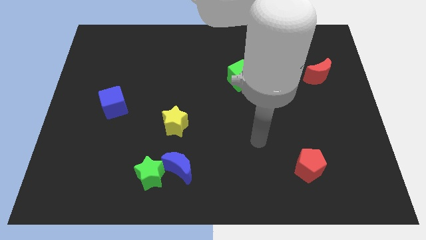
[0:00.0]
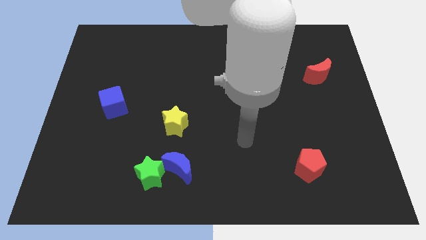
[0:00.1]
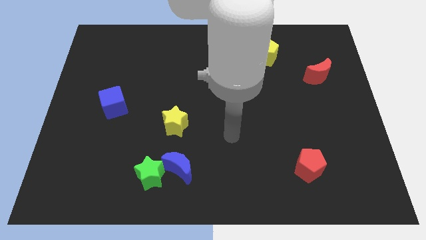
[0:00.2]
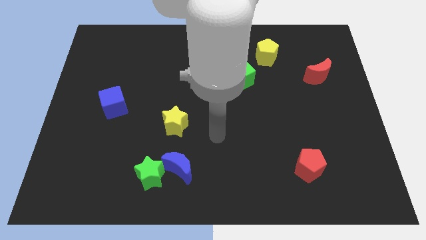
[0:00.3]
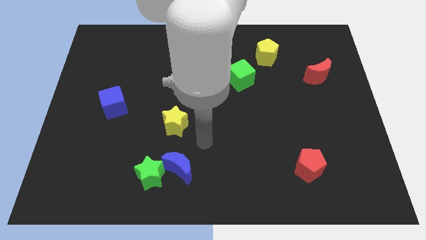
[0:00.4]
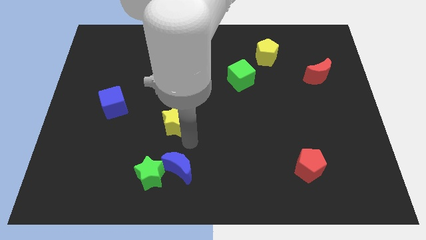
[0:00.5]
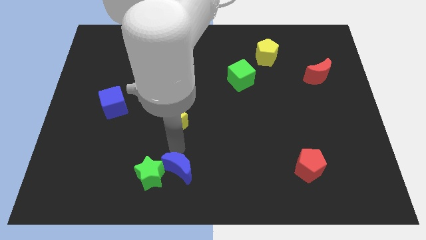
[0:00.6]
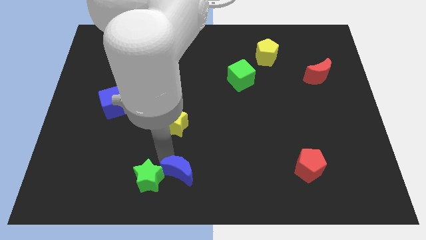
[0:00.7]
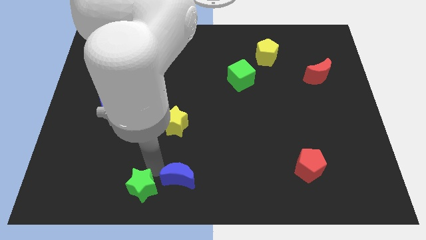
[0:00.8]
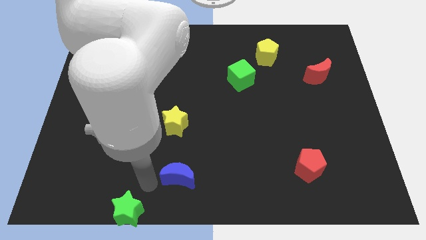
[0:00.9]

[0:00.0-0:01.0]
separate the blue moon from the green star

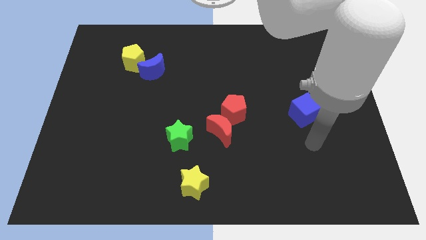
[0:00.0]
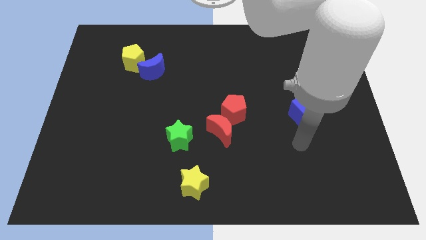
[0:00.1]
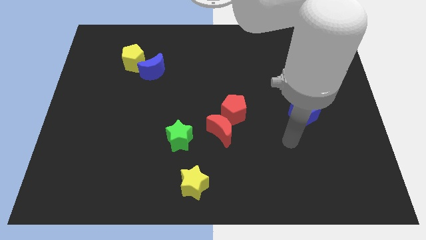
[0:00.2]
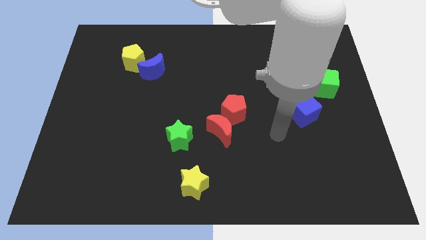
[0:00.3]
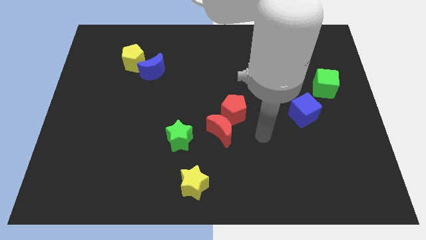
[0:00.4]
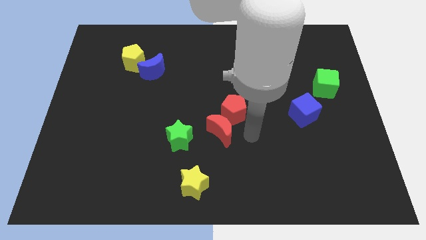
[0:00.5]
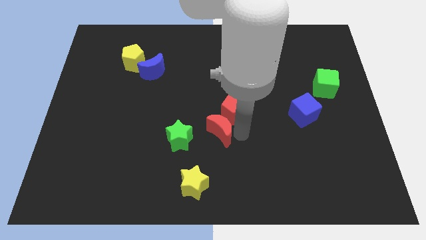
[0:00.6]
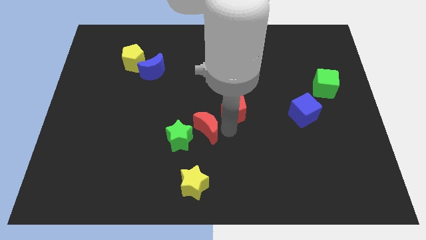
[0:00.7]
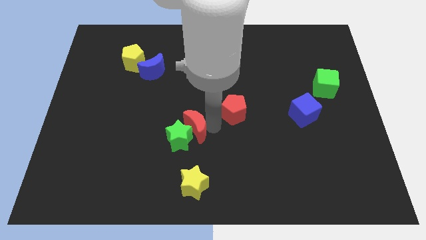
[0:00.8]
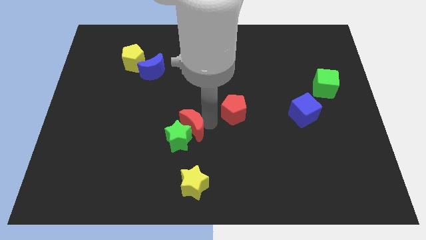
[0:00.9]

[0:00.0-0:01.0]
pull the red pentagon apart from the red moon

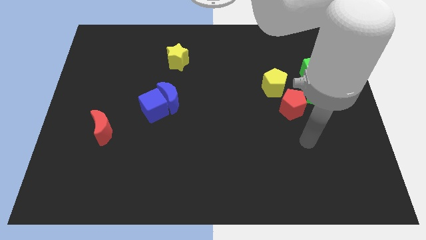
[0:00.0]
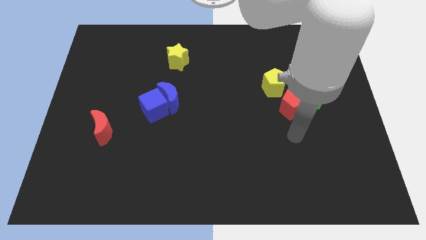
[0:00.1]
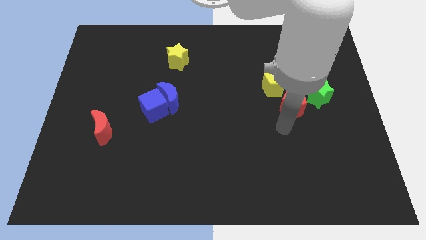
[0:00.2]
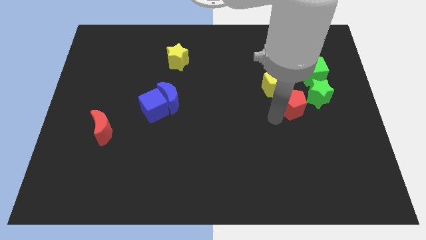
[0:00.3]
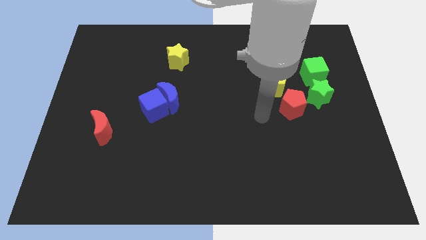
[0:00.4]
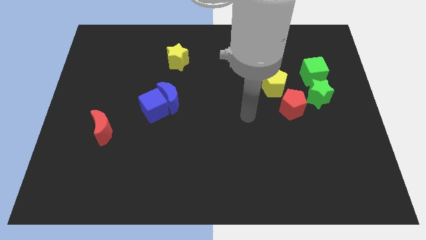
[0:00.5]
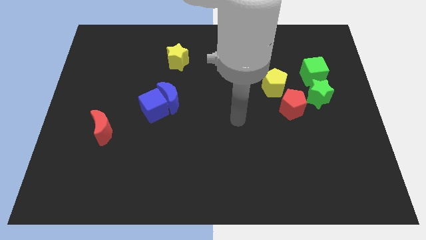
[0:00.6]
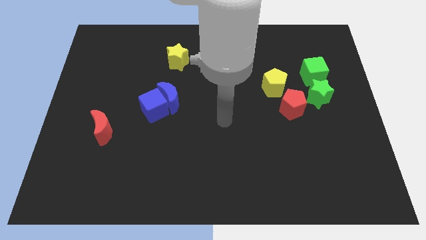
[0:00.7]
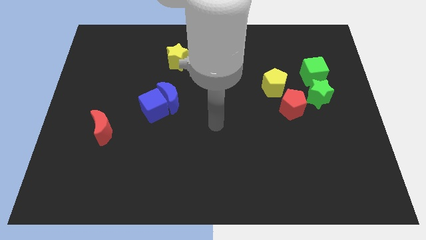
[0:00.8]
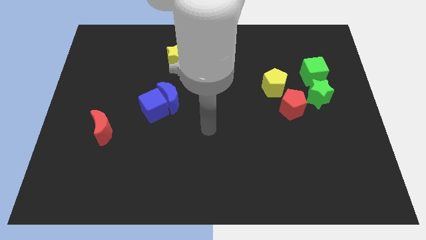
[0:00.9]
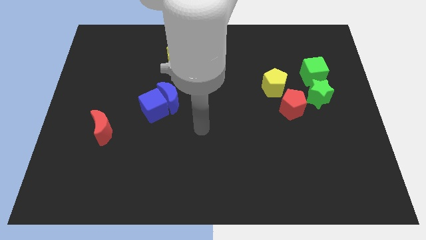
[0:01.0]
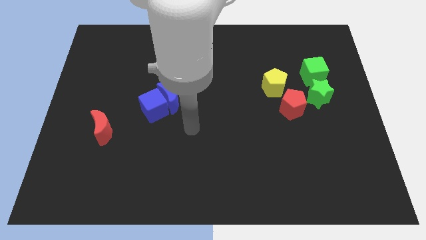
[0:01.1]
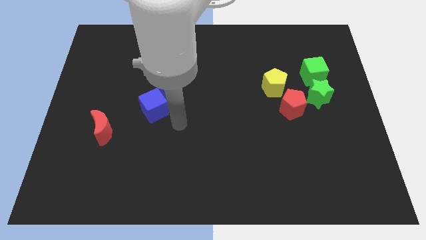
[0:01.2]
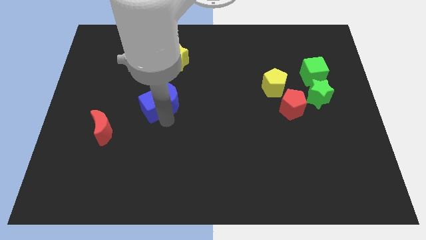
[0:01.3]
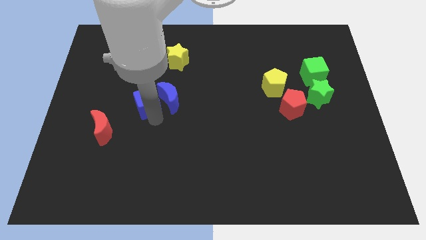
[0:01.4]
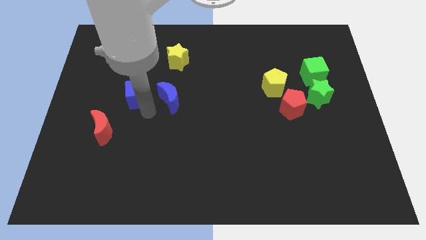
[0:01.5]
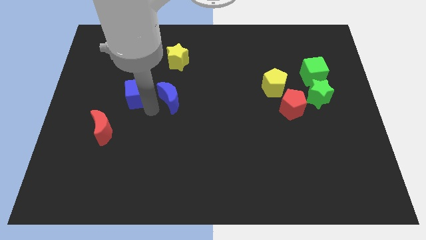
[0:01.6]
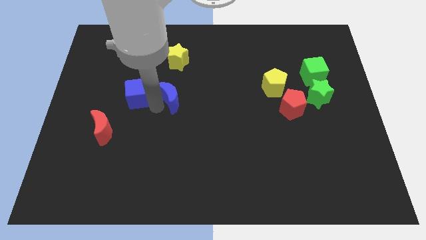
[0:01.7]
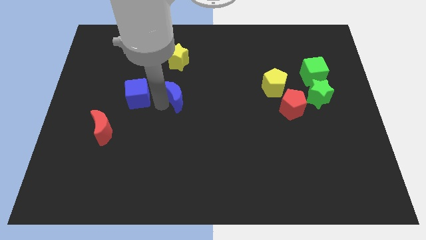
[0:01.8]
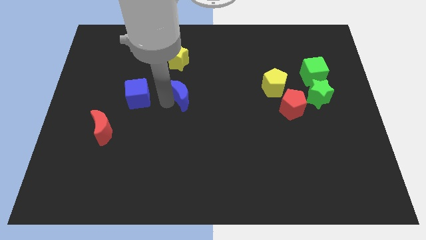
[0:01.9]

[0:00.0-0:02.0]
move the blue moon away from the blue cube

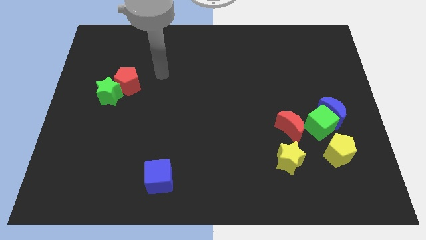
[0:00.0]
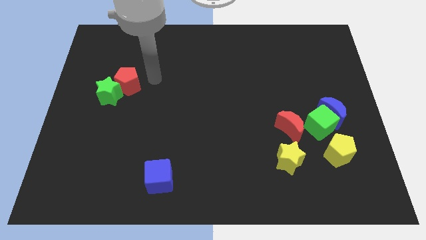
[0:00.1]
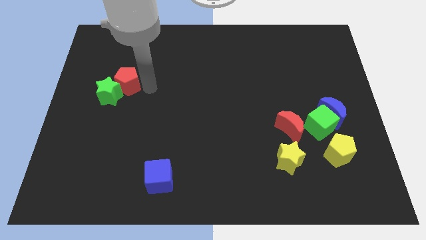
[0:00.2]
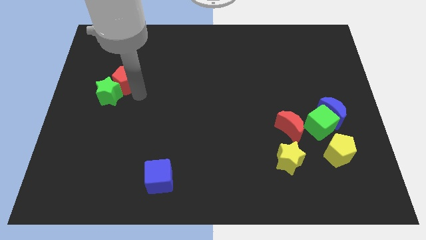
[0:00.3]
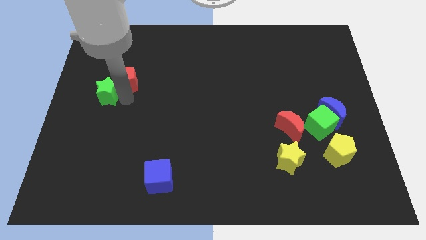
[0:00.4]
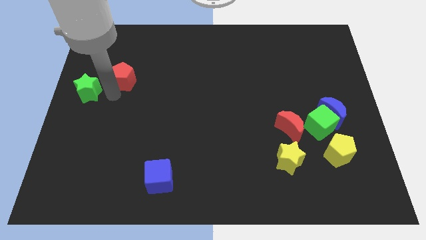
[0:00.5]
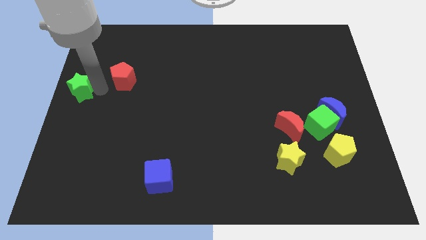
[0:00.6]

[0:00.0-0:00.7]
separate the red pentagon from the green star

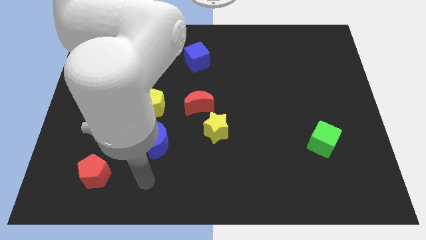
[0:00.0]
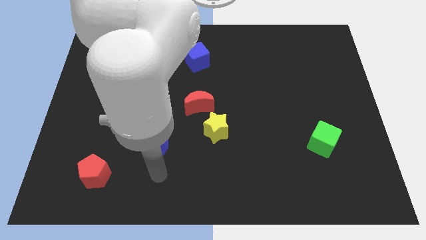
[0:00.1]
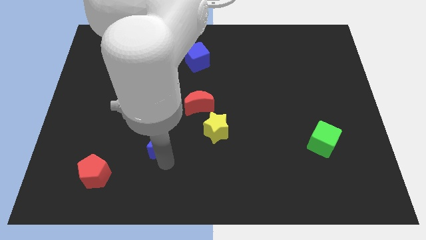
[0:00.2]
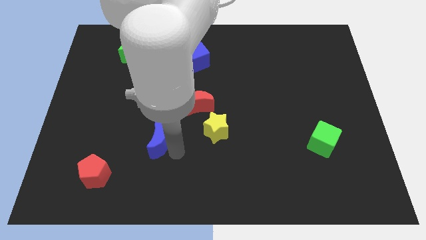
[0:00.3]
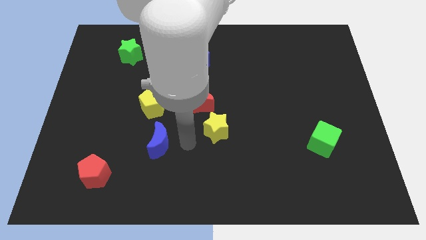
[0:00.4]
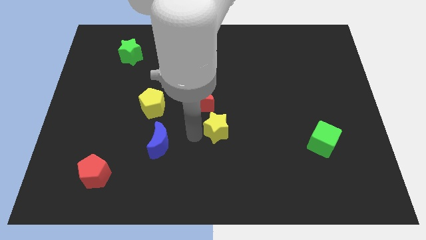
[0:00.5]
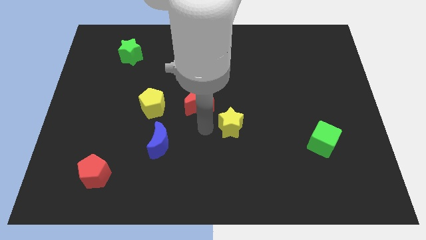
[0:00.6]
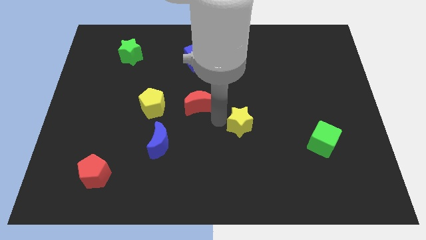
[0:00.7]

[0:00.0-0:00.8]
move the red moon away from the yellow star

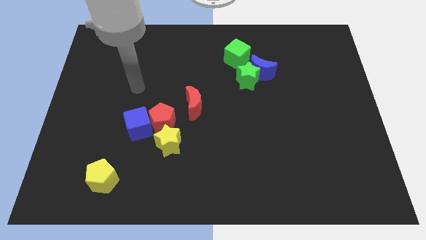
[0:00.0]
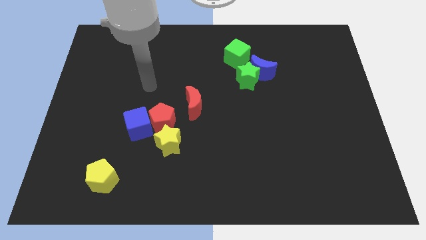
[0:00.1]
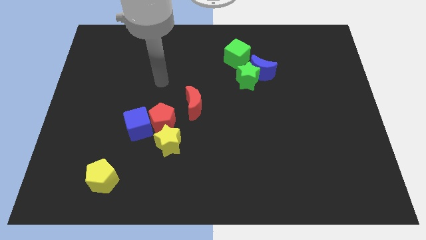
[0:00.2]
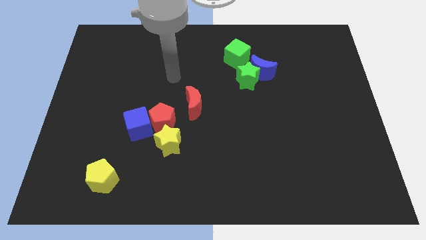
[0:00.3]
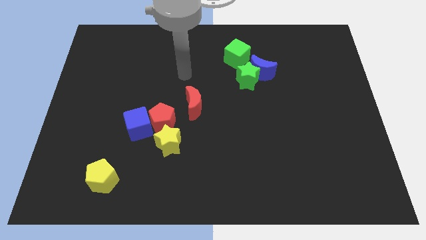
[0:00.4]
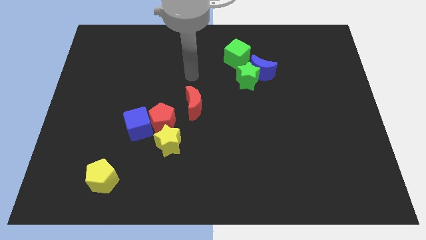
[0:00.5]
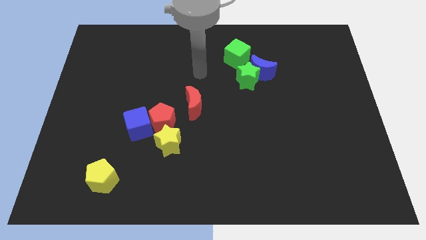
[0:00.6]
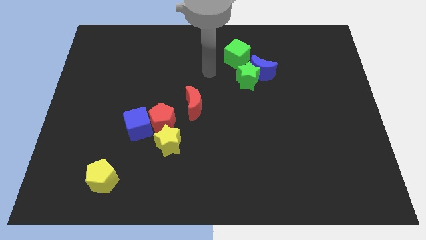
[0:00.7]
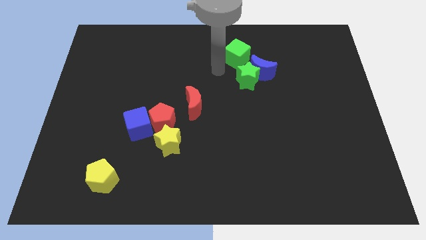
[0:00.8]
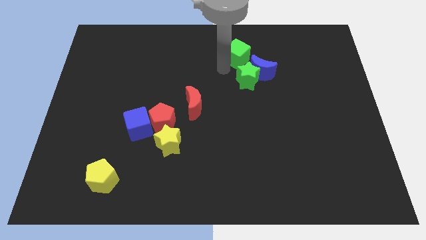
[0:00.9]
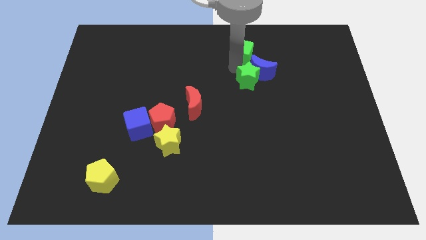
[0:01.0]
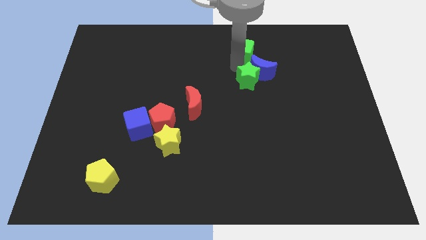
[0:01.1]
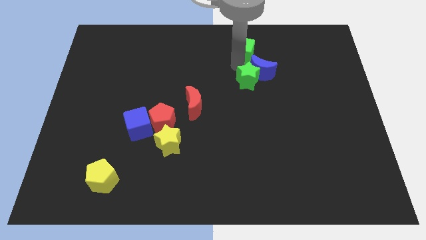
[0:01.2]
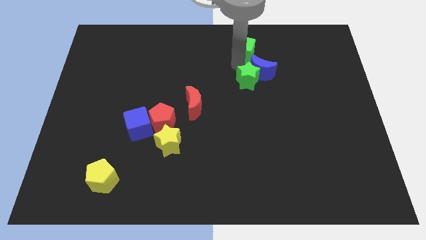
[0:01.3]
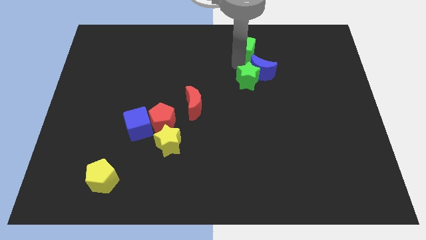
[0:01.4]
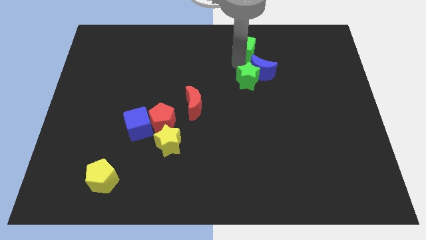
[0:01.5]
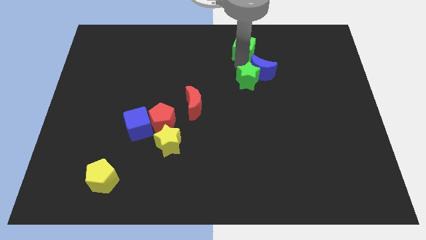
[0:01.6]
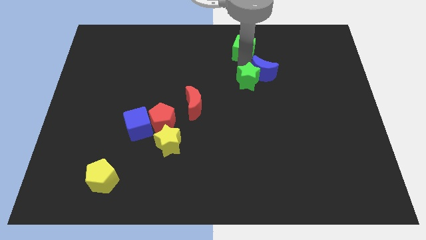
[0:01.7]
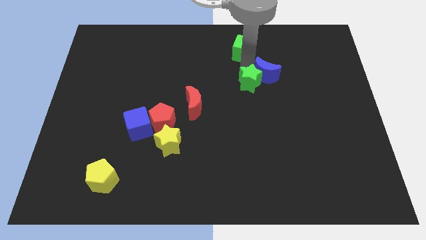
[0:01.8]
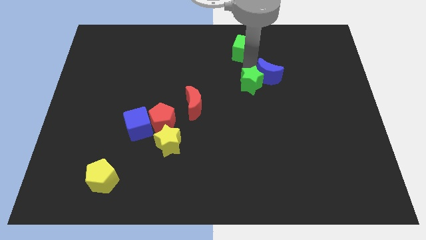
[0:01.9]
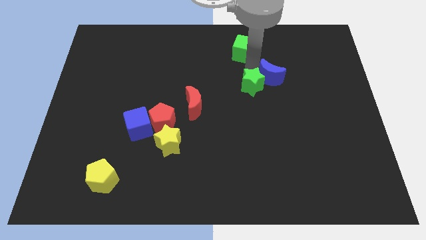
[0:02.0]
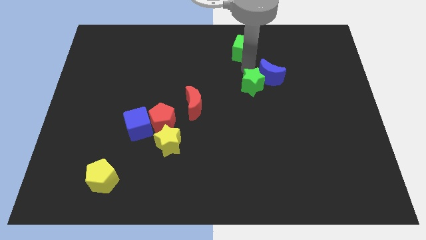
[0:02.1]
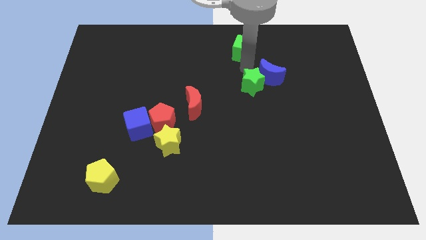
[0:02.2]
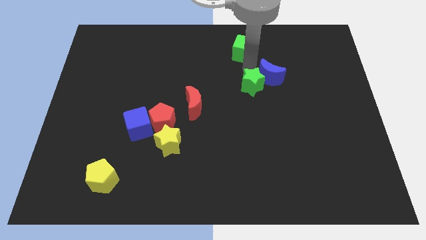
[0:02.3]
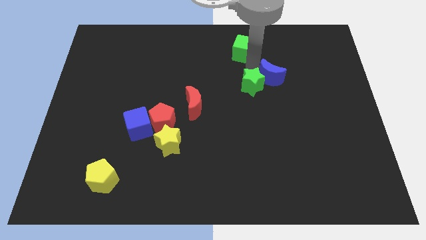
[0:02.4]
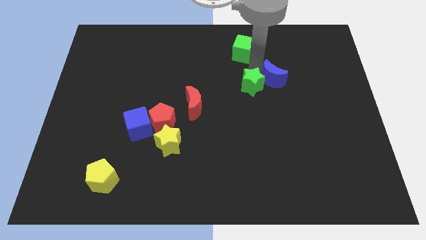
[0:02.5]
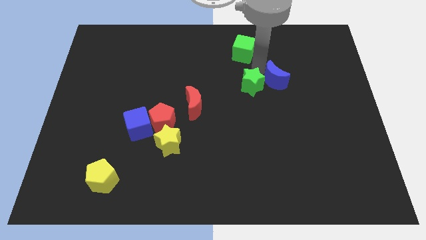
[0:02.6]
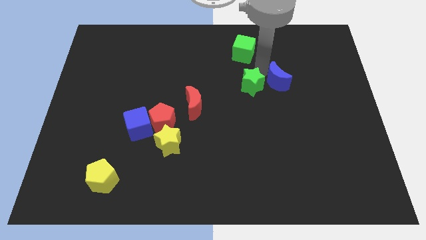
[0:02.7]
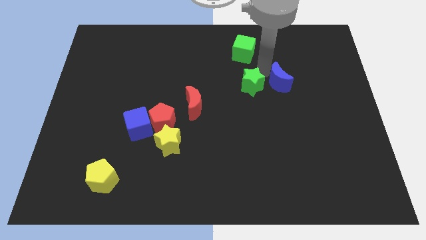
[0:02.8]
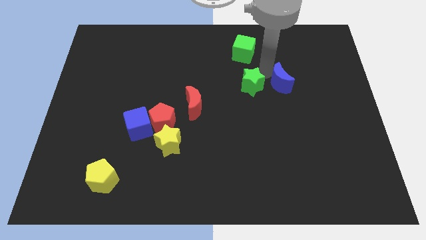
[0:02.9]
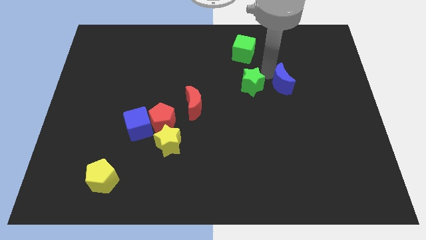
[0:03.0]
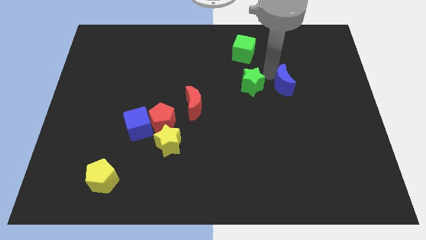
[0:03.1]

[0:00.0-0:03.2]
move the blue moon away from the green star and green cube

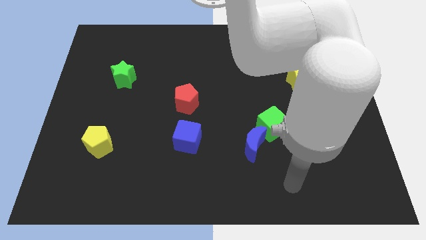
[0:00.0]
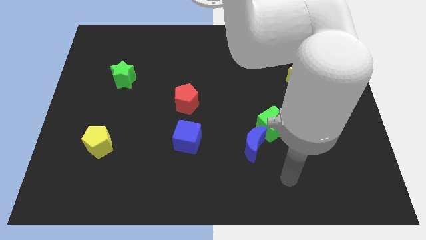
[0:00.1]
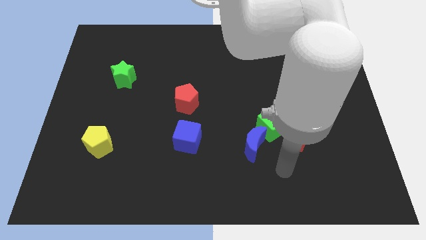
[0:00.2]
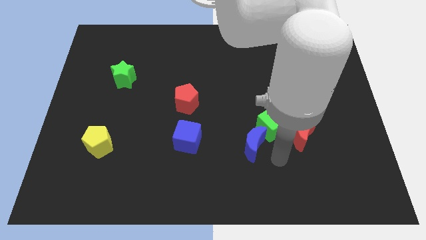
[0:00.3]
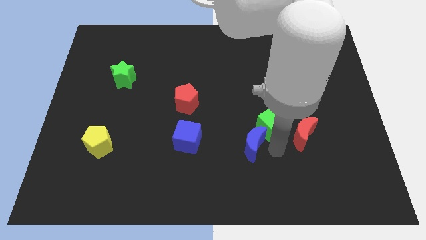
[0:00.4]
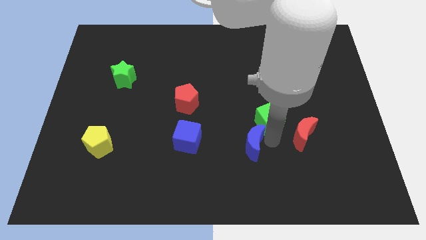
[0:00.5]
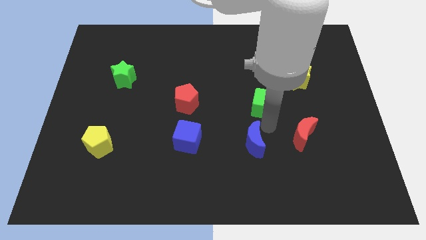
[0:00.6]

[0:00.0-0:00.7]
pull the blue moon apart from the green cube
